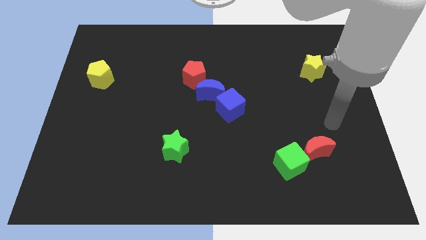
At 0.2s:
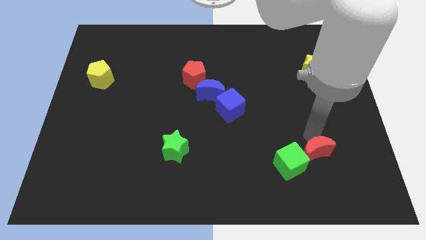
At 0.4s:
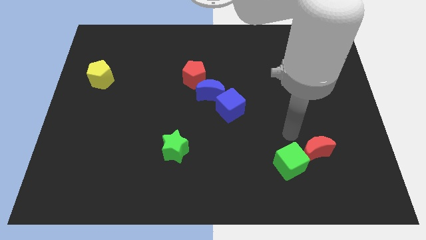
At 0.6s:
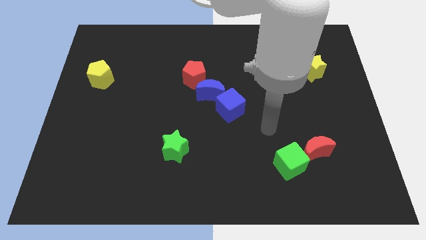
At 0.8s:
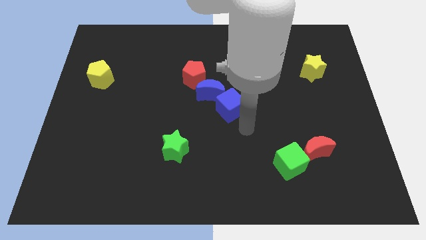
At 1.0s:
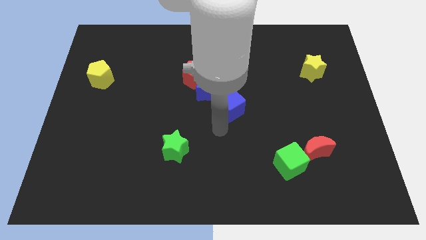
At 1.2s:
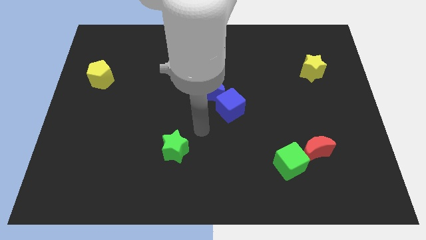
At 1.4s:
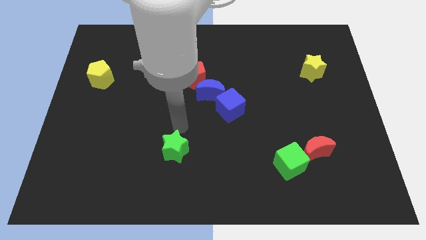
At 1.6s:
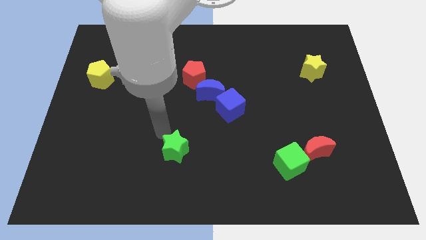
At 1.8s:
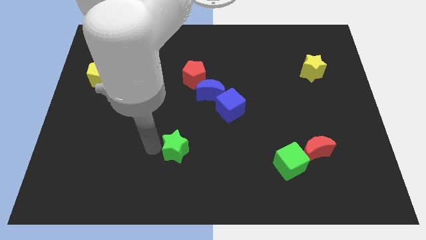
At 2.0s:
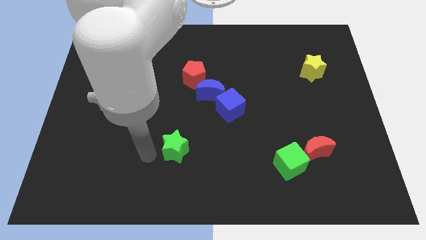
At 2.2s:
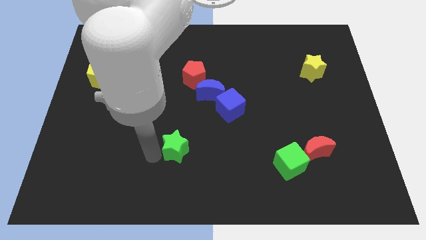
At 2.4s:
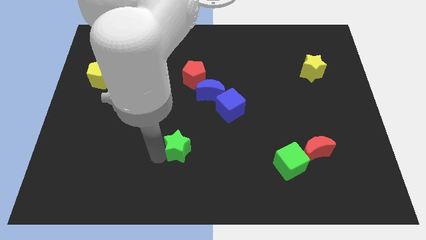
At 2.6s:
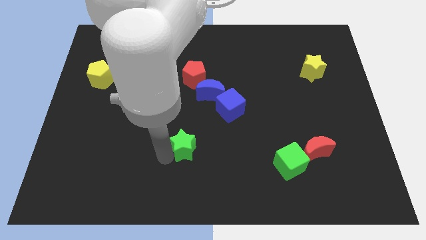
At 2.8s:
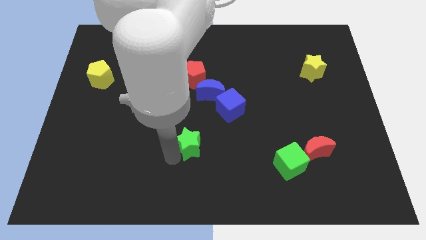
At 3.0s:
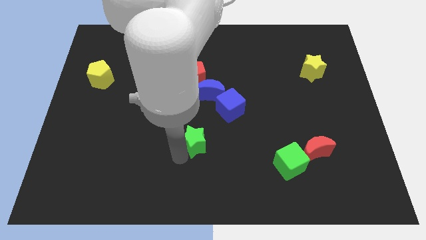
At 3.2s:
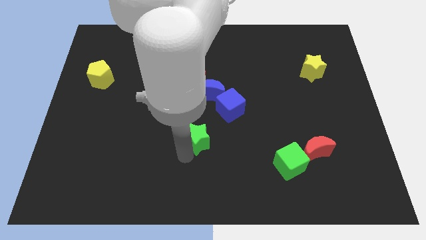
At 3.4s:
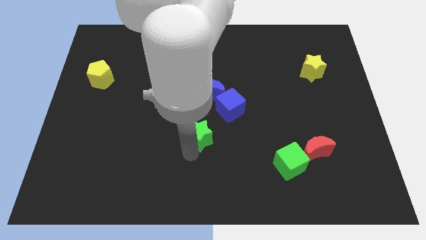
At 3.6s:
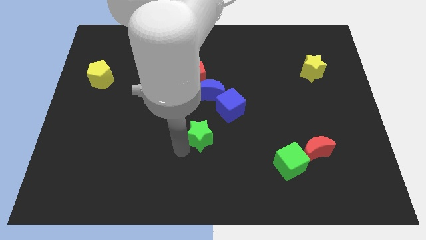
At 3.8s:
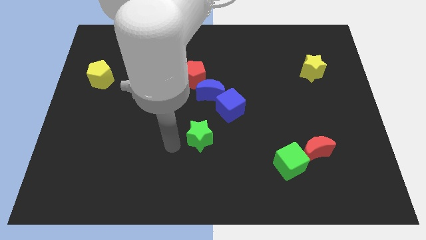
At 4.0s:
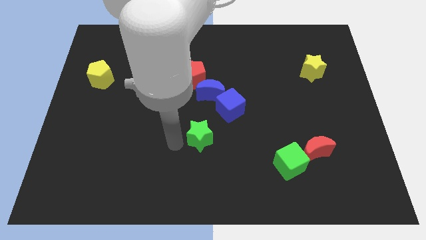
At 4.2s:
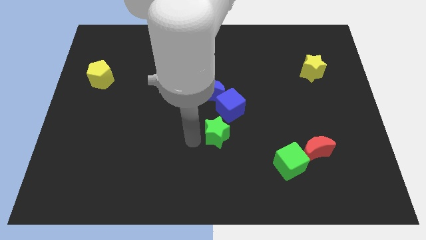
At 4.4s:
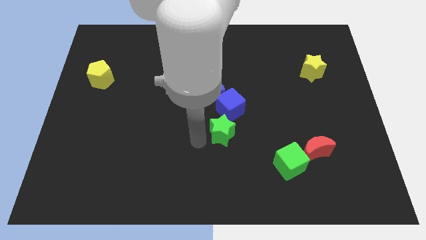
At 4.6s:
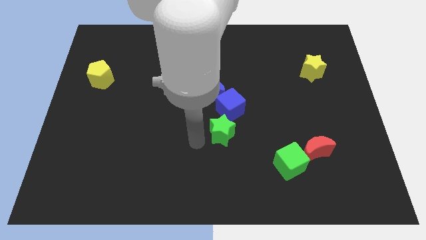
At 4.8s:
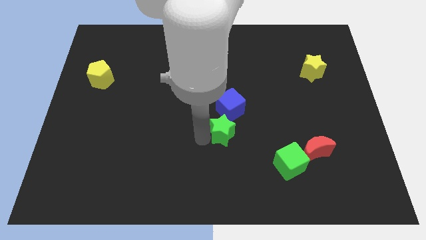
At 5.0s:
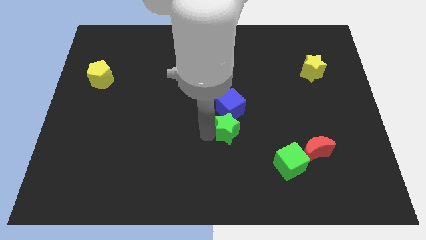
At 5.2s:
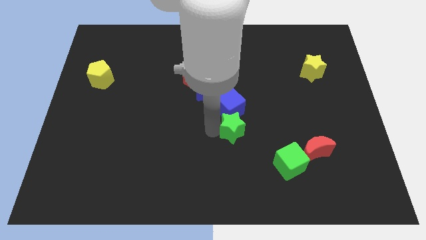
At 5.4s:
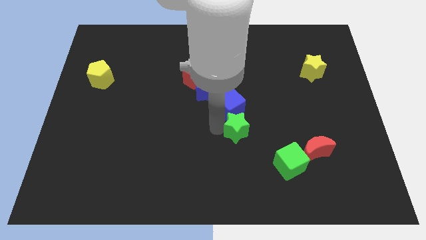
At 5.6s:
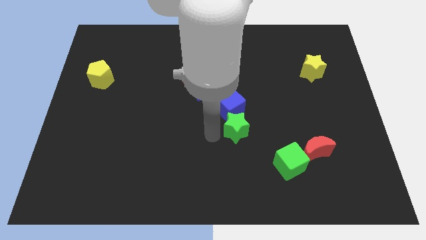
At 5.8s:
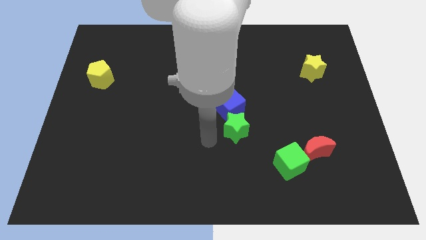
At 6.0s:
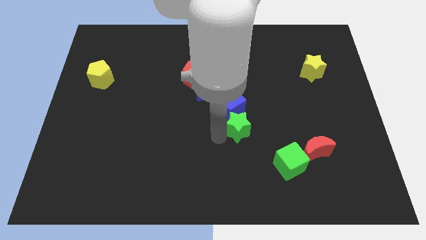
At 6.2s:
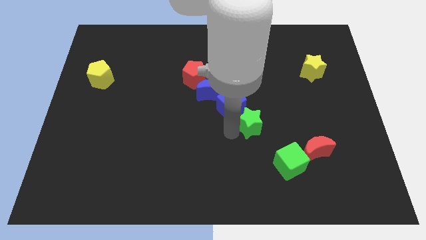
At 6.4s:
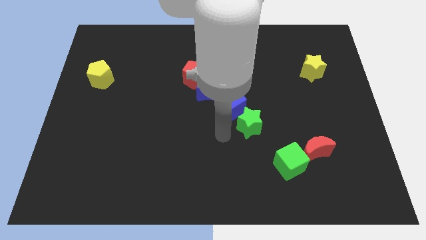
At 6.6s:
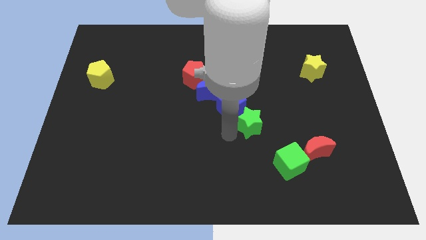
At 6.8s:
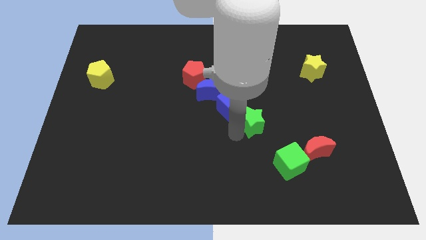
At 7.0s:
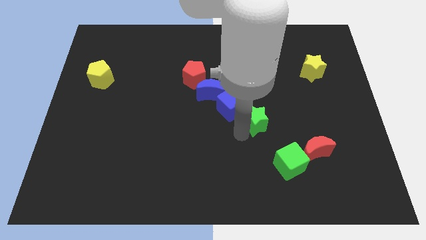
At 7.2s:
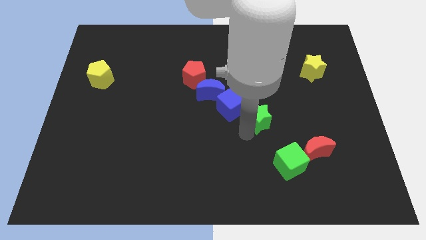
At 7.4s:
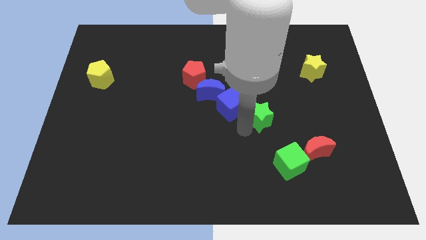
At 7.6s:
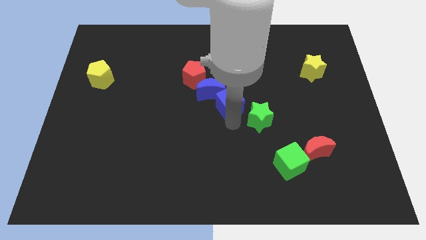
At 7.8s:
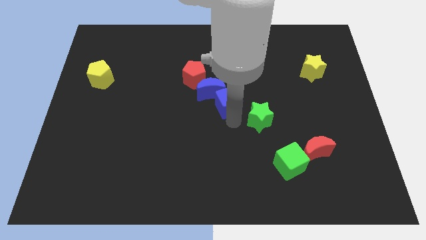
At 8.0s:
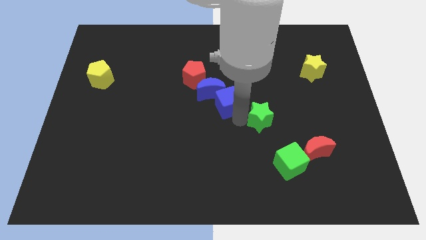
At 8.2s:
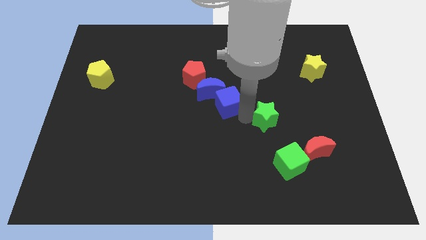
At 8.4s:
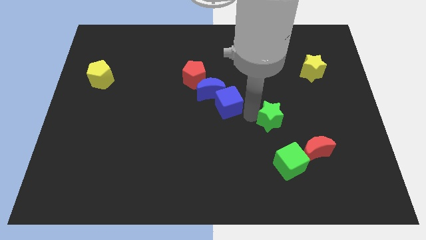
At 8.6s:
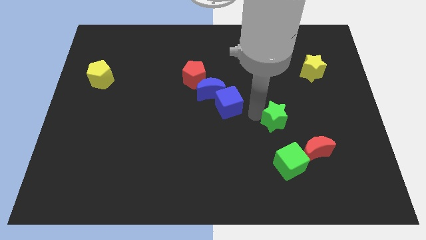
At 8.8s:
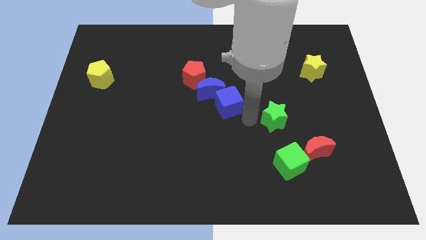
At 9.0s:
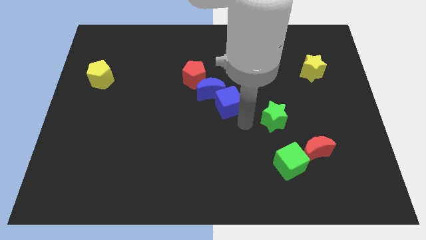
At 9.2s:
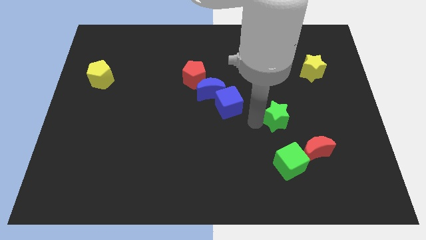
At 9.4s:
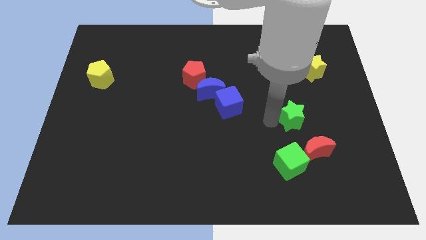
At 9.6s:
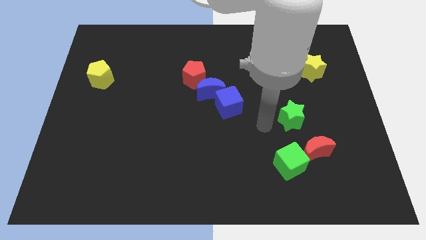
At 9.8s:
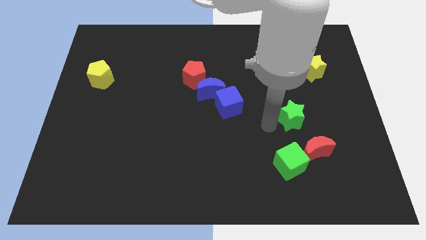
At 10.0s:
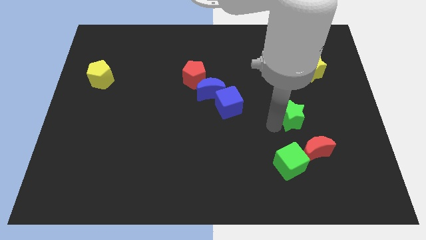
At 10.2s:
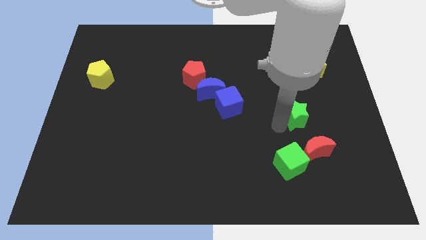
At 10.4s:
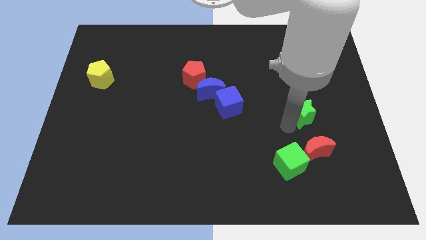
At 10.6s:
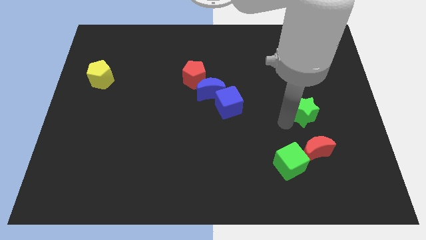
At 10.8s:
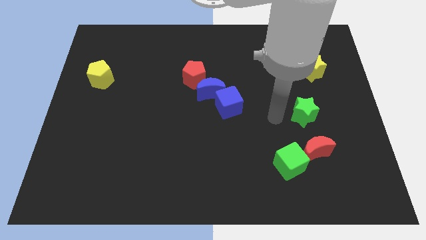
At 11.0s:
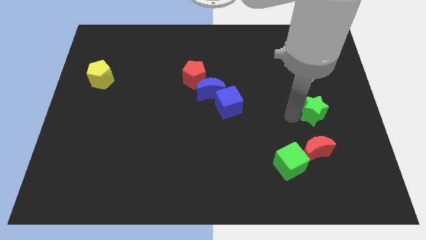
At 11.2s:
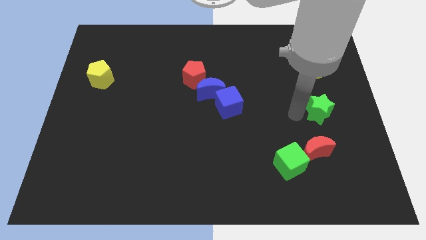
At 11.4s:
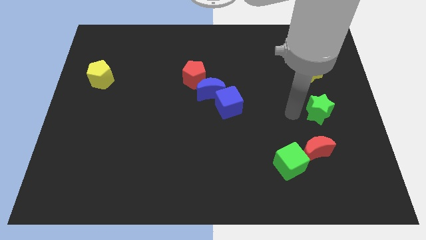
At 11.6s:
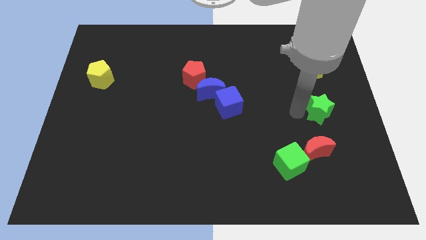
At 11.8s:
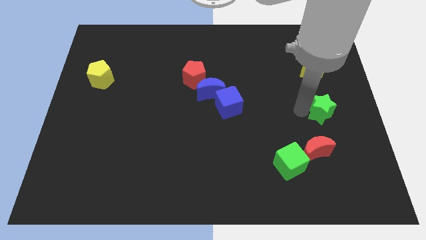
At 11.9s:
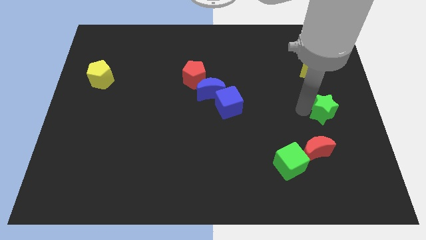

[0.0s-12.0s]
slide the green star to the right side of the board
